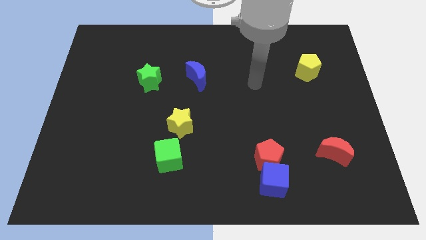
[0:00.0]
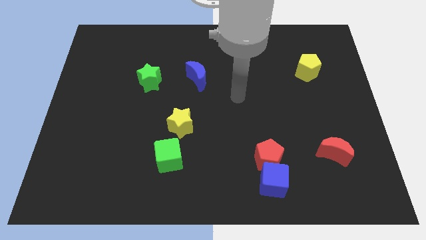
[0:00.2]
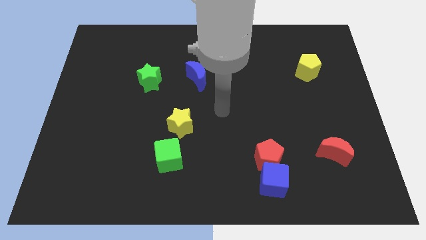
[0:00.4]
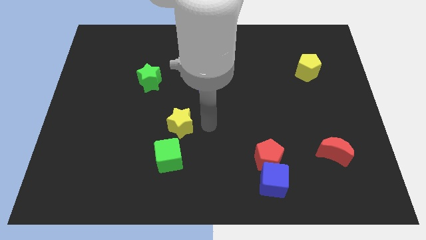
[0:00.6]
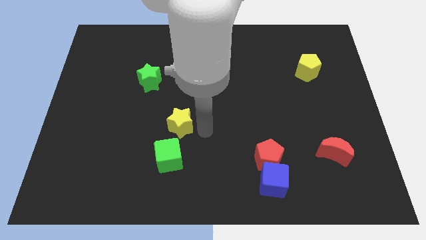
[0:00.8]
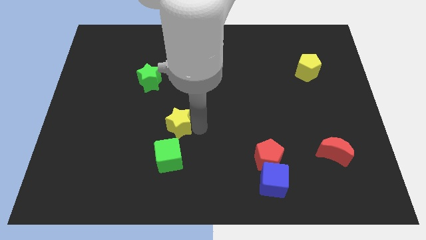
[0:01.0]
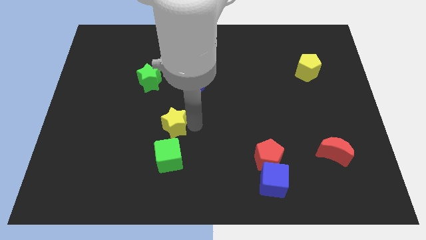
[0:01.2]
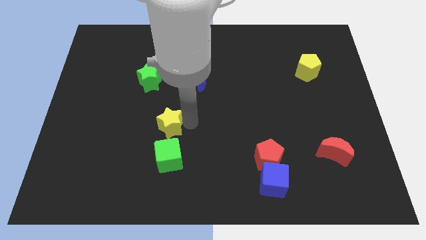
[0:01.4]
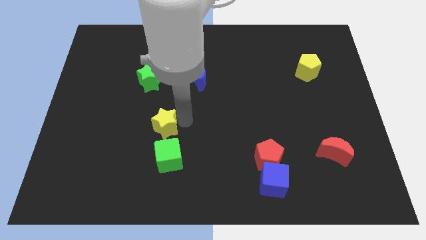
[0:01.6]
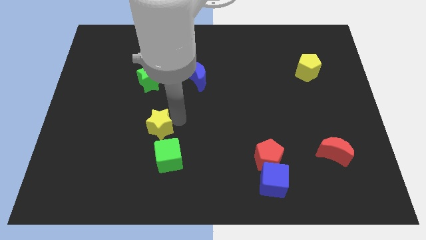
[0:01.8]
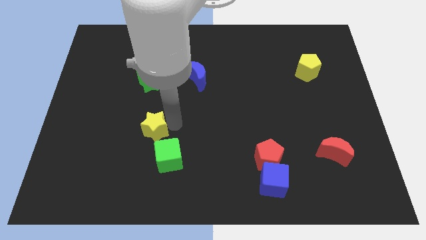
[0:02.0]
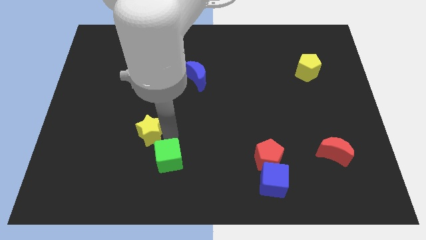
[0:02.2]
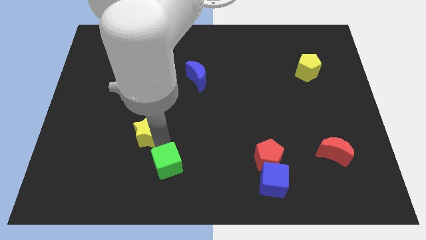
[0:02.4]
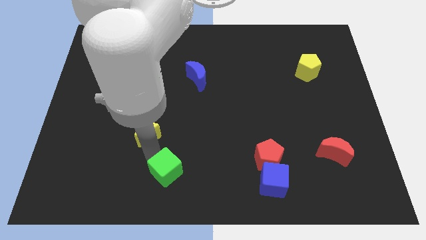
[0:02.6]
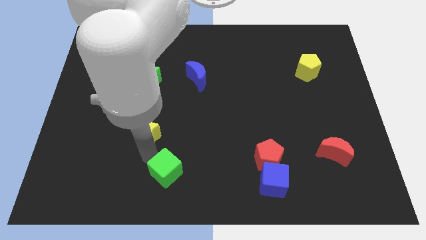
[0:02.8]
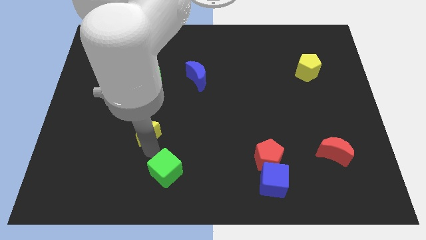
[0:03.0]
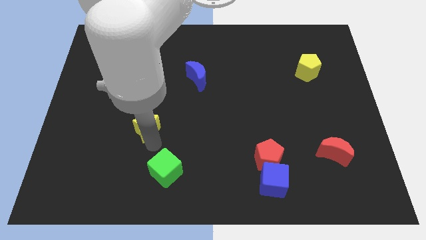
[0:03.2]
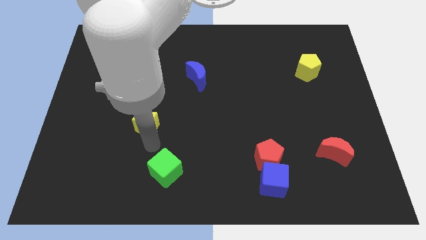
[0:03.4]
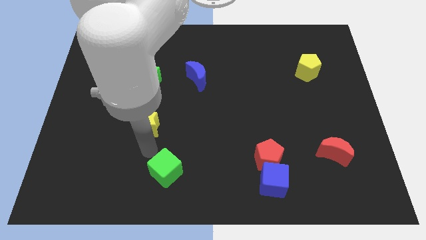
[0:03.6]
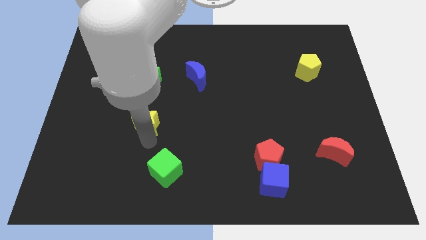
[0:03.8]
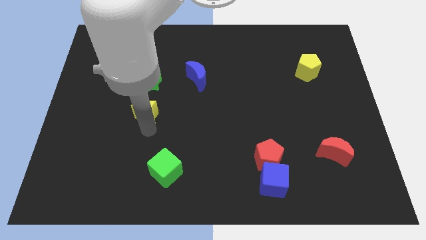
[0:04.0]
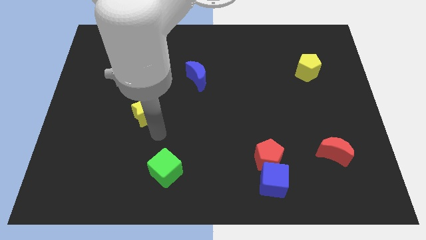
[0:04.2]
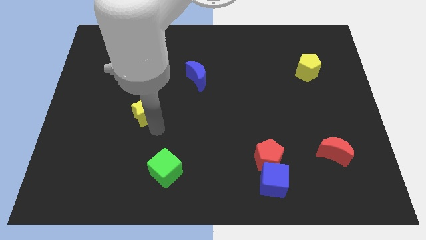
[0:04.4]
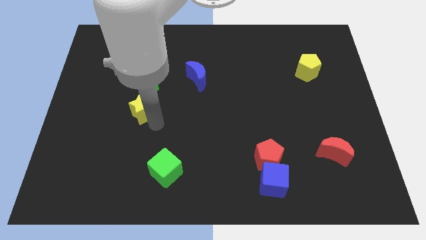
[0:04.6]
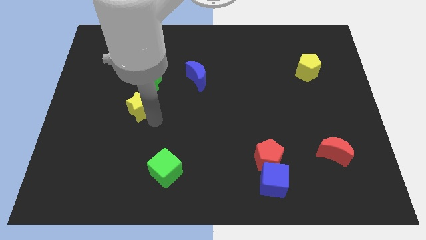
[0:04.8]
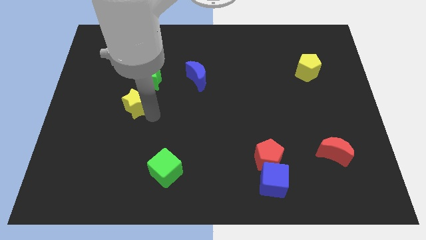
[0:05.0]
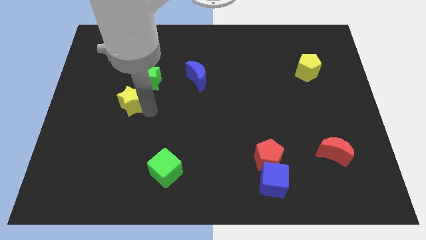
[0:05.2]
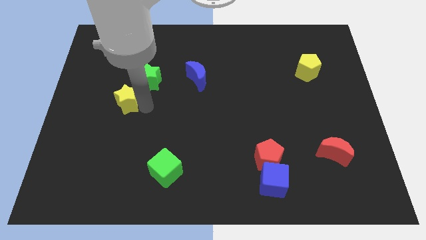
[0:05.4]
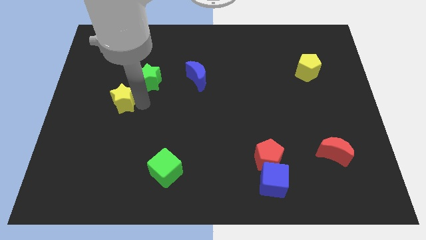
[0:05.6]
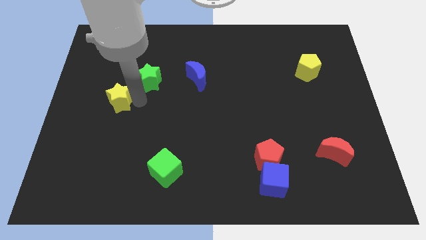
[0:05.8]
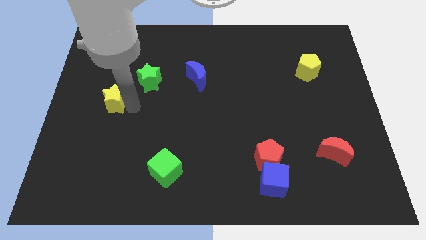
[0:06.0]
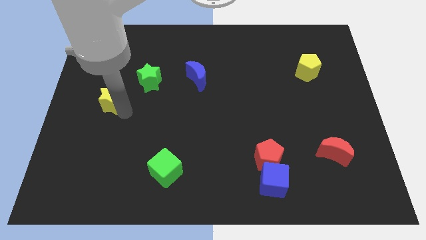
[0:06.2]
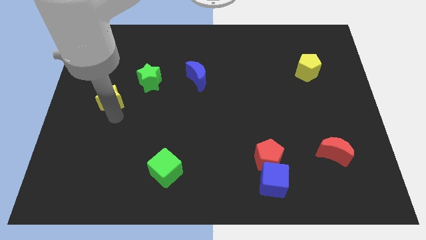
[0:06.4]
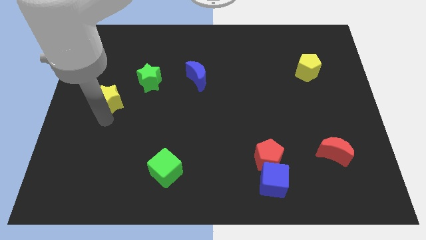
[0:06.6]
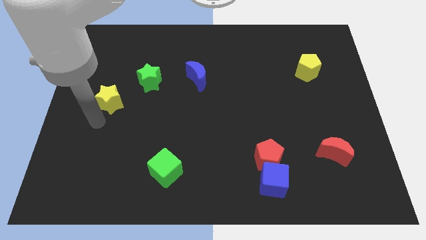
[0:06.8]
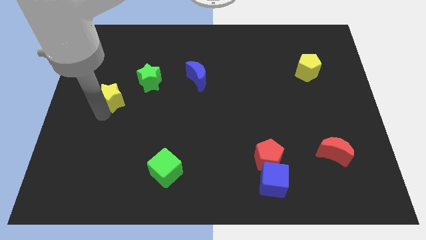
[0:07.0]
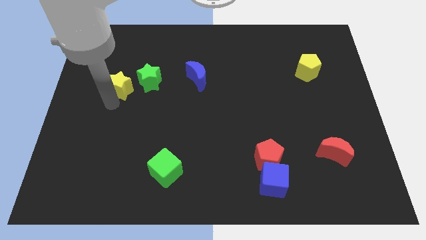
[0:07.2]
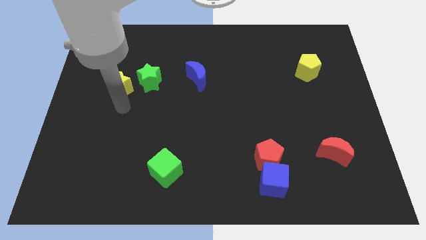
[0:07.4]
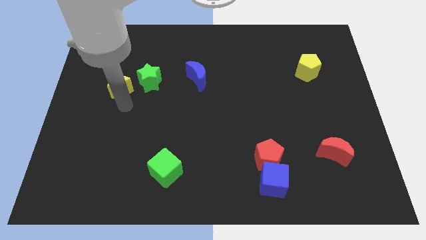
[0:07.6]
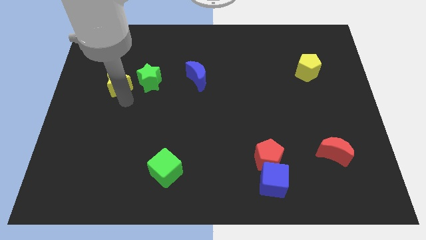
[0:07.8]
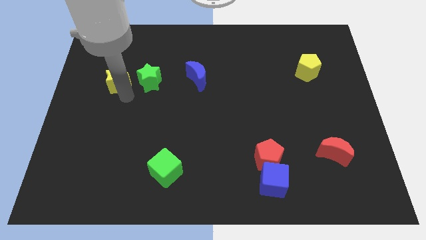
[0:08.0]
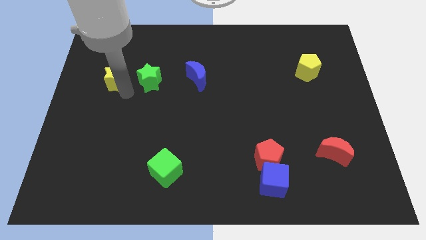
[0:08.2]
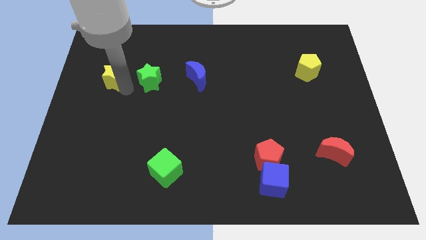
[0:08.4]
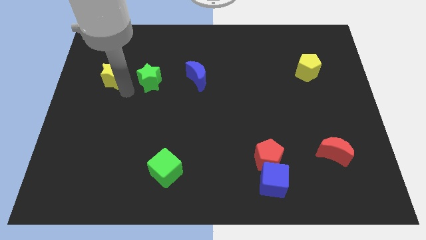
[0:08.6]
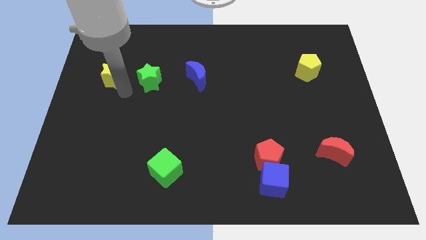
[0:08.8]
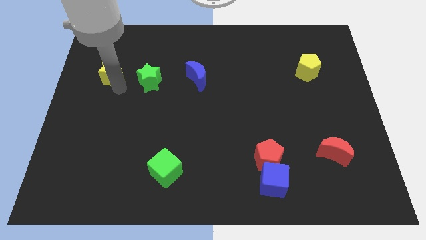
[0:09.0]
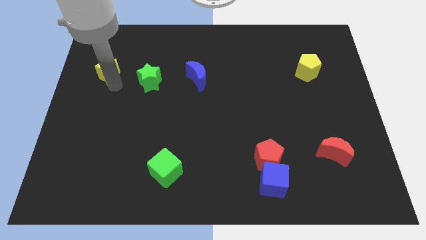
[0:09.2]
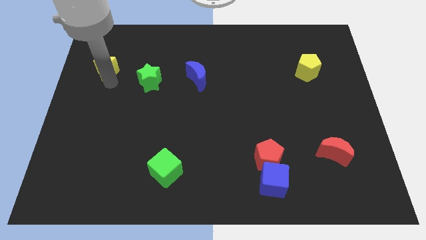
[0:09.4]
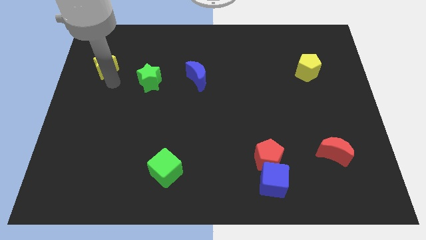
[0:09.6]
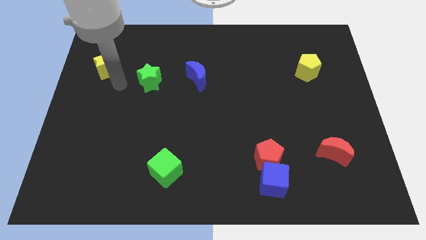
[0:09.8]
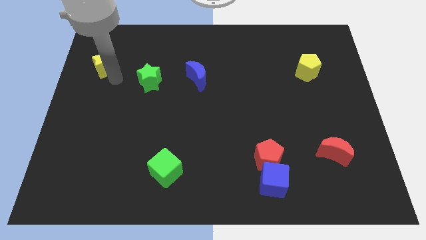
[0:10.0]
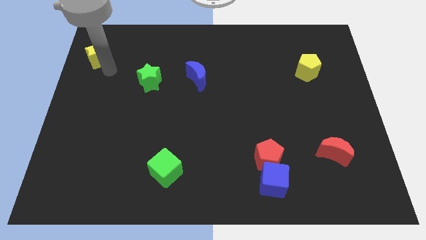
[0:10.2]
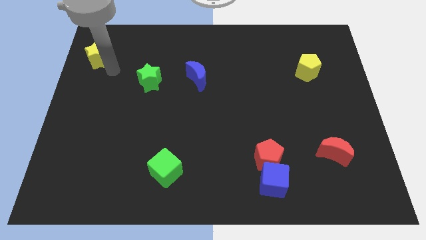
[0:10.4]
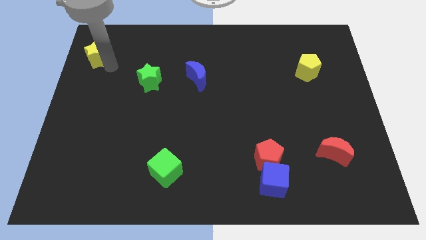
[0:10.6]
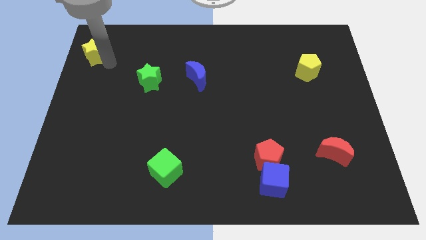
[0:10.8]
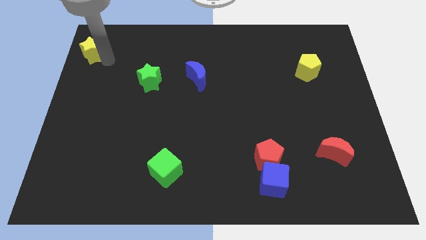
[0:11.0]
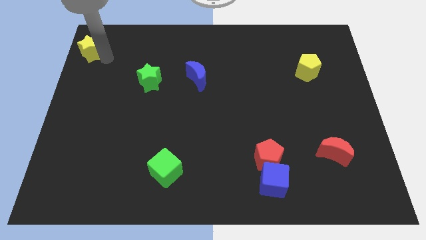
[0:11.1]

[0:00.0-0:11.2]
put the yellow star to the top left of the board
